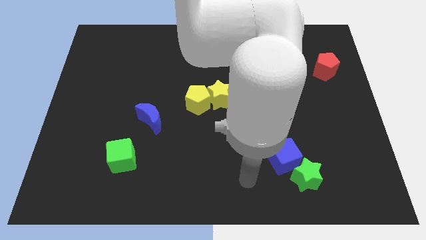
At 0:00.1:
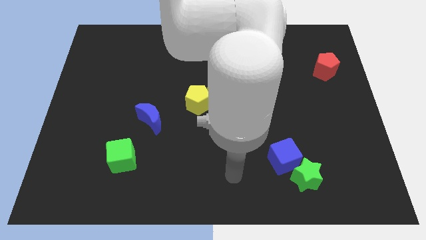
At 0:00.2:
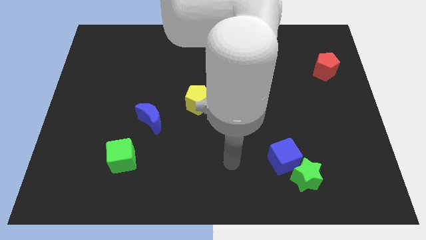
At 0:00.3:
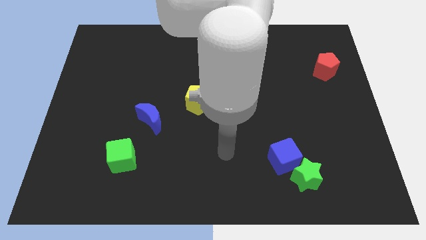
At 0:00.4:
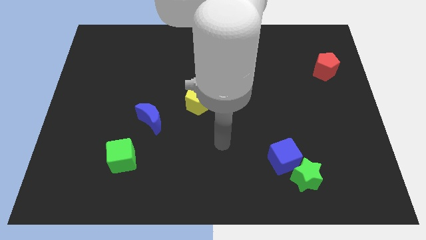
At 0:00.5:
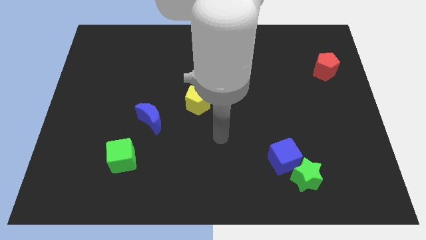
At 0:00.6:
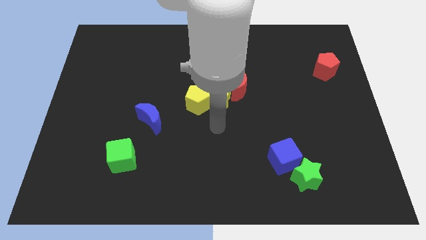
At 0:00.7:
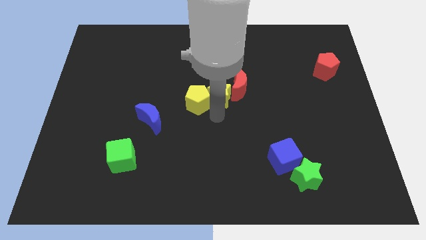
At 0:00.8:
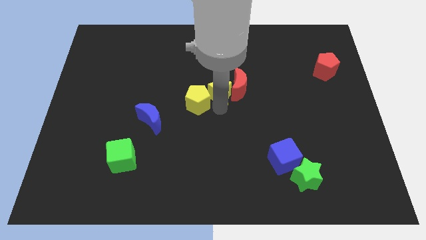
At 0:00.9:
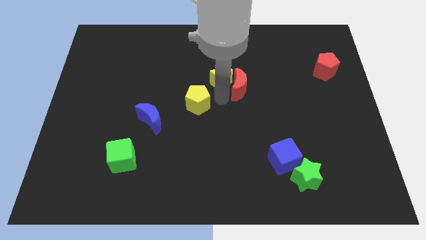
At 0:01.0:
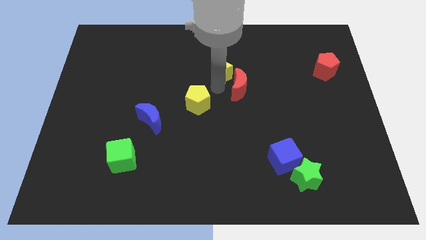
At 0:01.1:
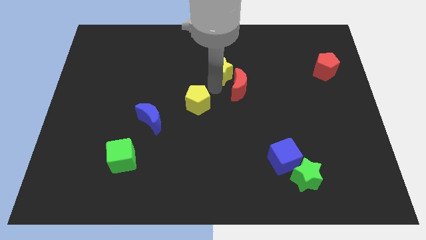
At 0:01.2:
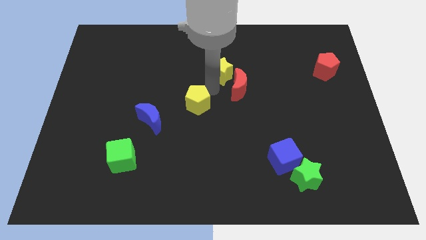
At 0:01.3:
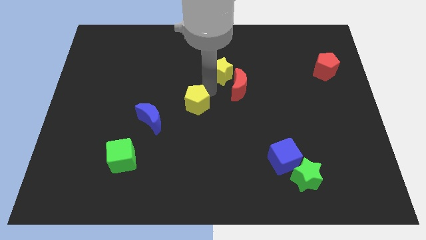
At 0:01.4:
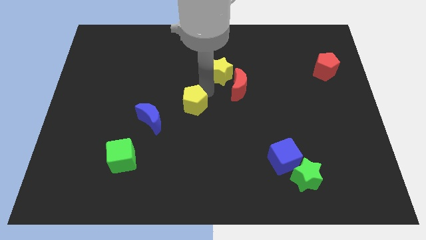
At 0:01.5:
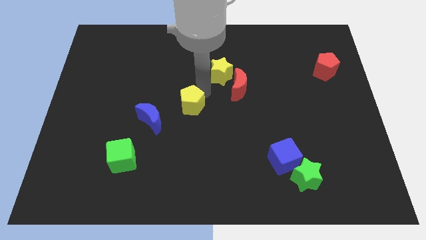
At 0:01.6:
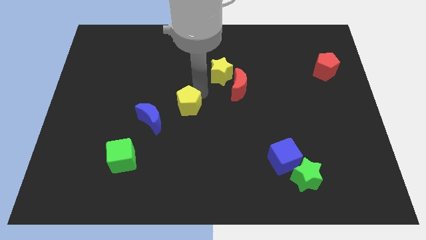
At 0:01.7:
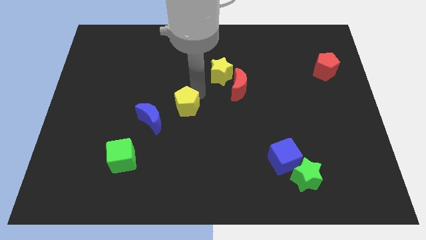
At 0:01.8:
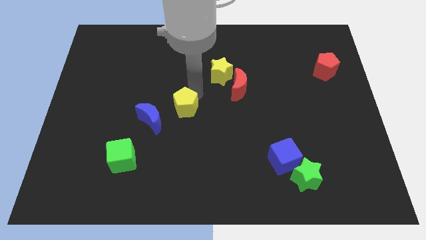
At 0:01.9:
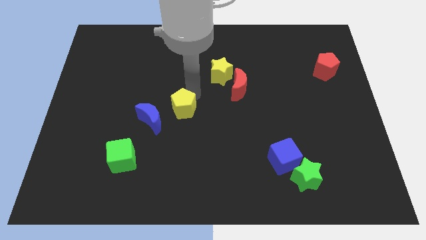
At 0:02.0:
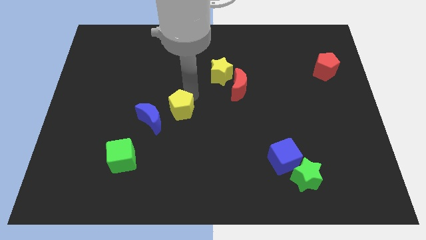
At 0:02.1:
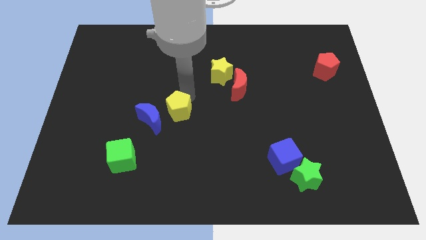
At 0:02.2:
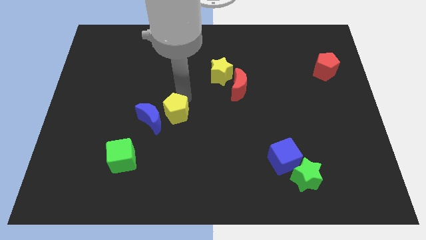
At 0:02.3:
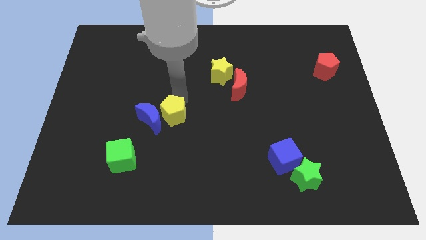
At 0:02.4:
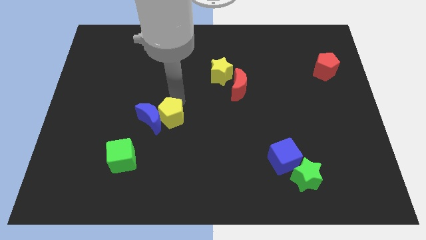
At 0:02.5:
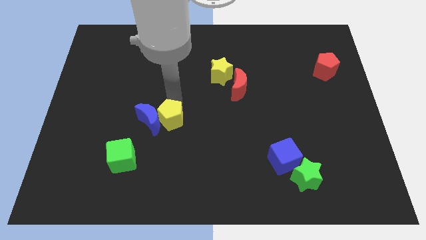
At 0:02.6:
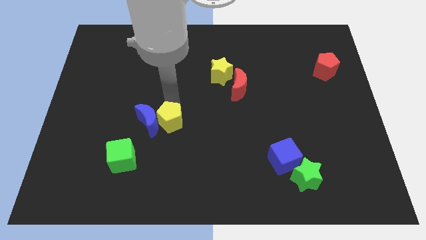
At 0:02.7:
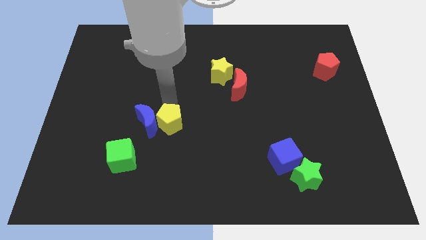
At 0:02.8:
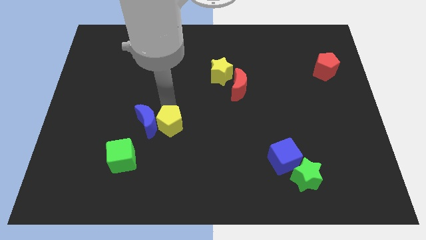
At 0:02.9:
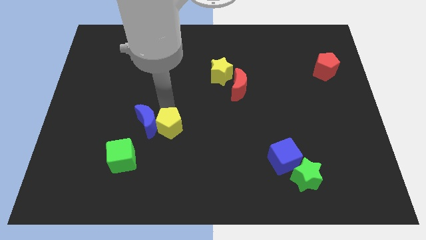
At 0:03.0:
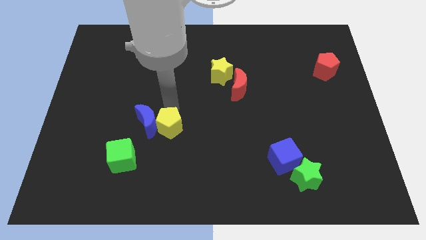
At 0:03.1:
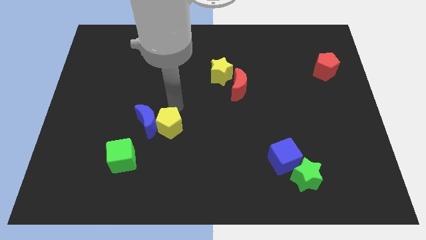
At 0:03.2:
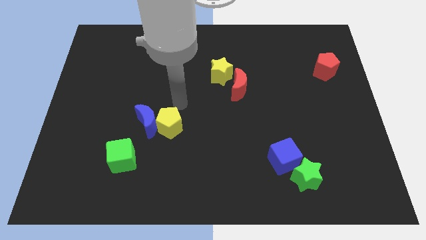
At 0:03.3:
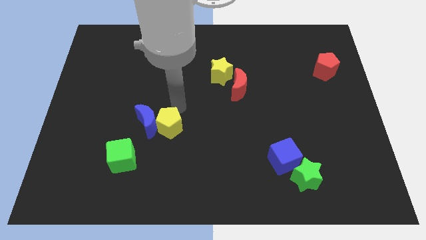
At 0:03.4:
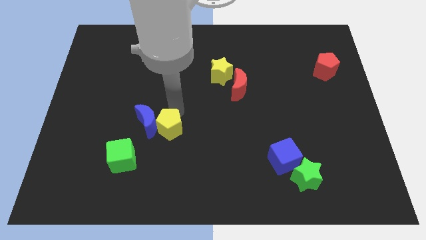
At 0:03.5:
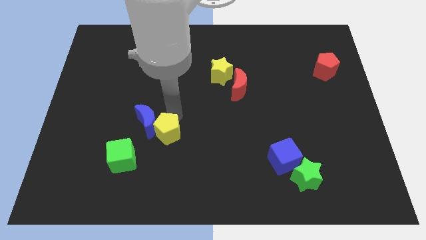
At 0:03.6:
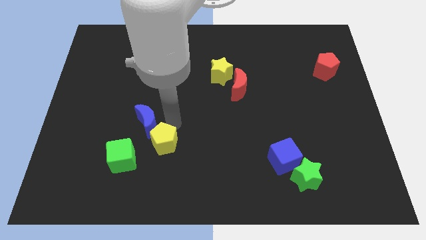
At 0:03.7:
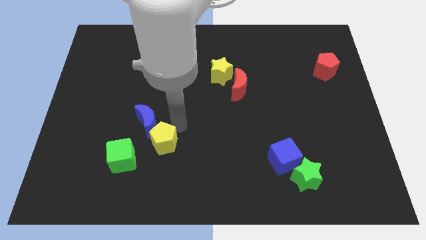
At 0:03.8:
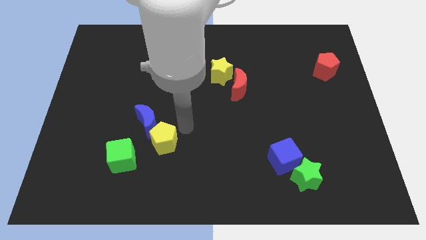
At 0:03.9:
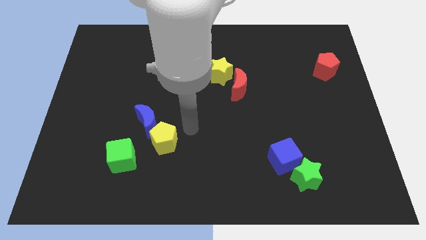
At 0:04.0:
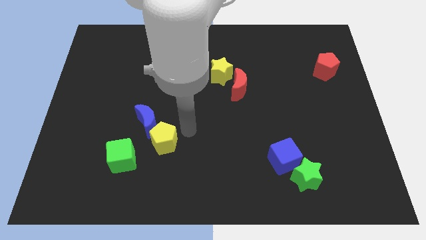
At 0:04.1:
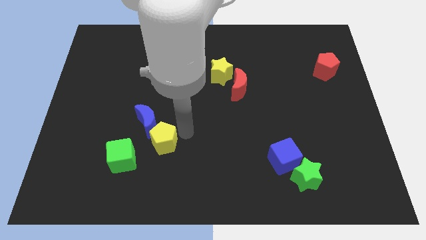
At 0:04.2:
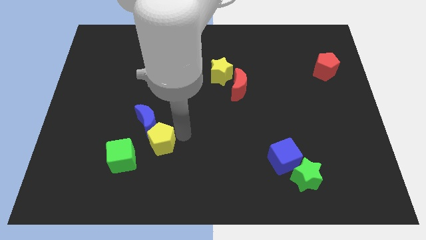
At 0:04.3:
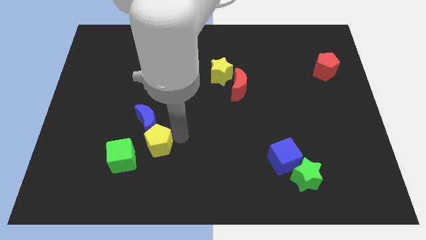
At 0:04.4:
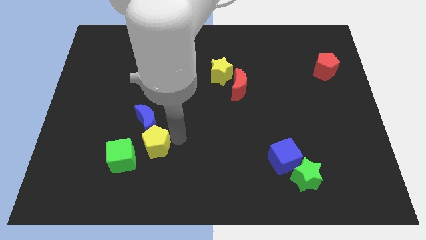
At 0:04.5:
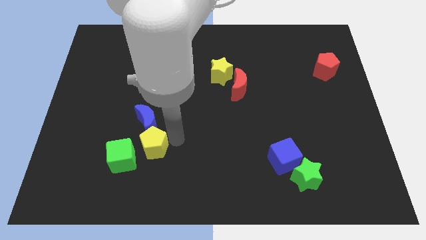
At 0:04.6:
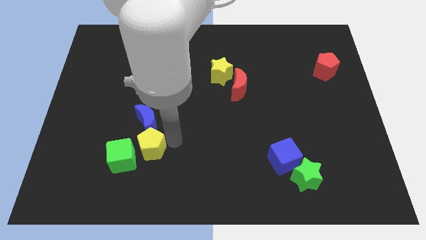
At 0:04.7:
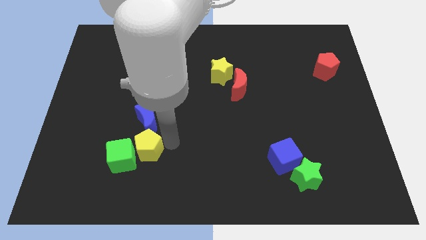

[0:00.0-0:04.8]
put the yellow pentagon towards the green cube

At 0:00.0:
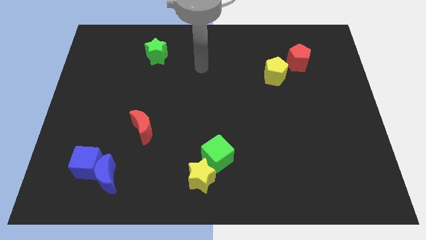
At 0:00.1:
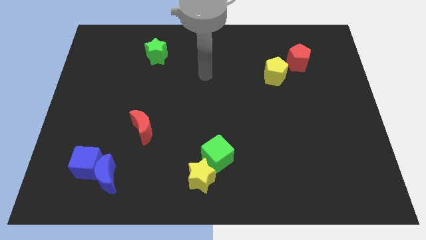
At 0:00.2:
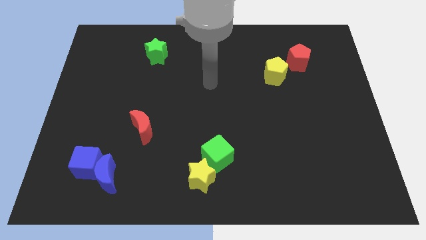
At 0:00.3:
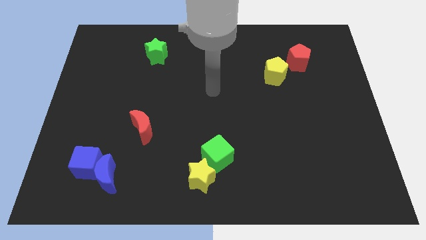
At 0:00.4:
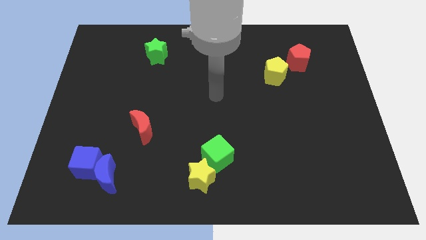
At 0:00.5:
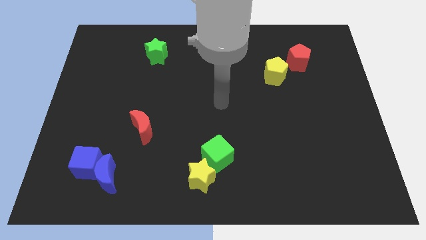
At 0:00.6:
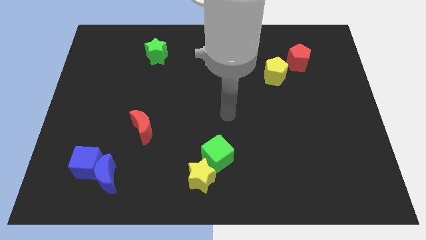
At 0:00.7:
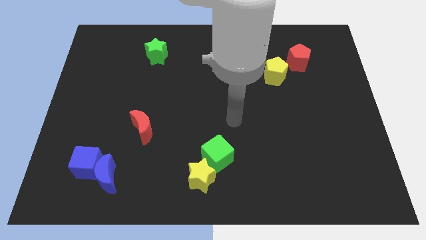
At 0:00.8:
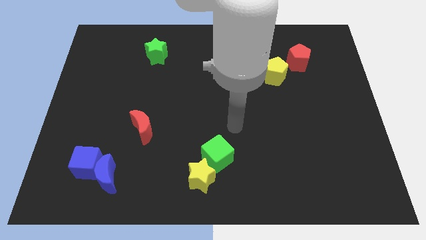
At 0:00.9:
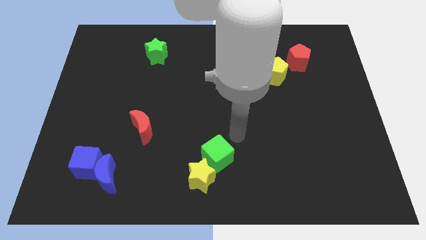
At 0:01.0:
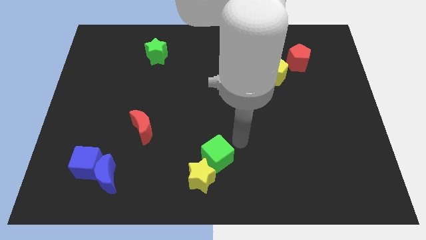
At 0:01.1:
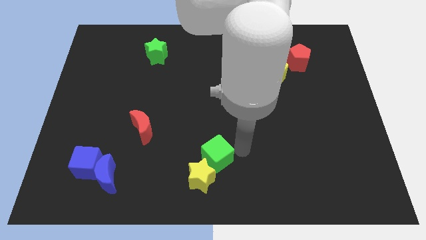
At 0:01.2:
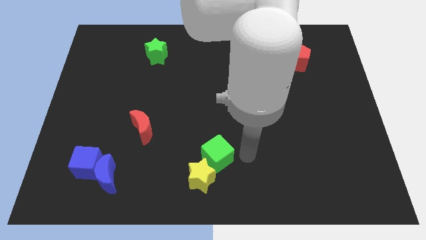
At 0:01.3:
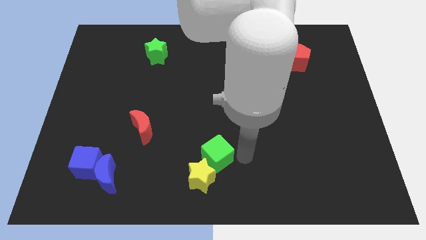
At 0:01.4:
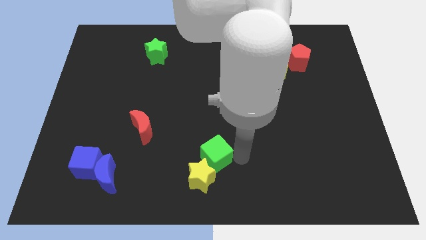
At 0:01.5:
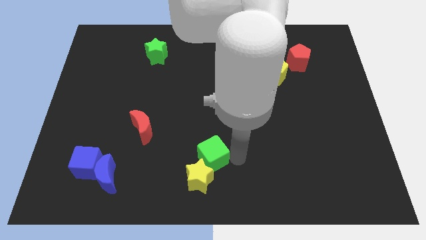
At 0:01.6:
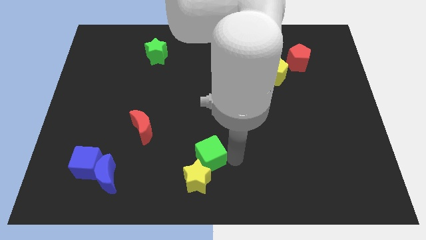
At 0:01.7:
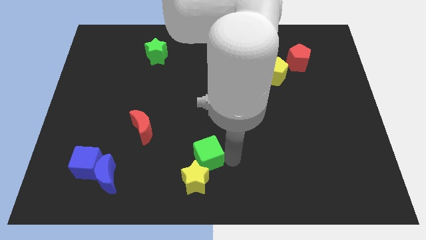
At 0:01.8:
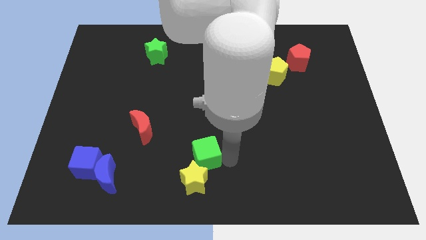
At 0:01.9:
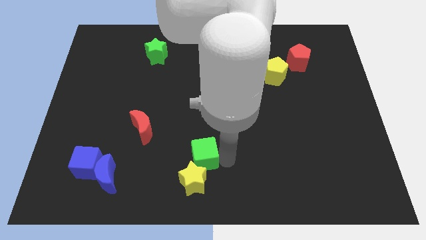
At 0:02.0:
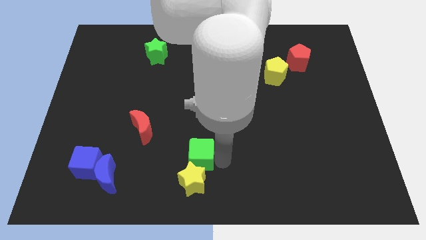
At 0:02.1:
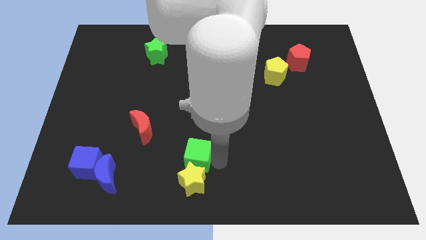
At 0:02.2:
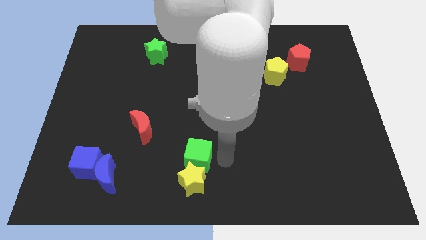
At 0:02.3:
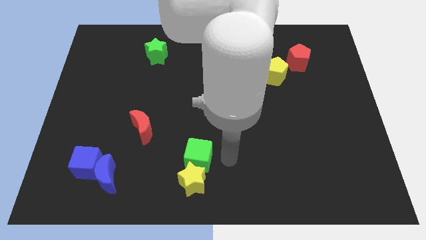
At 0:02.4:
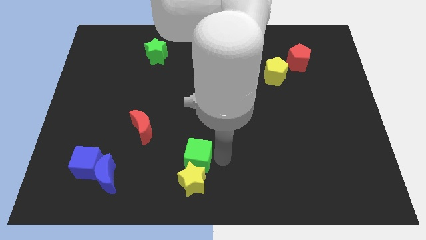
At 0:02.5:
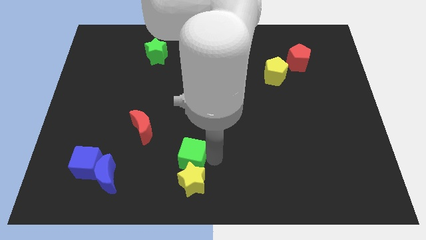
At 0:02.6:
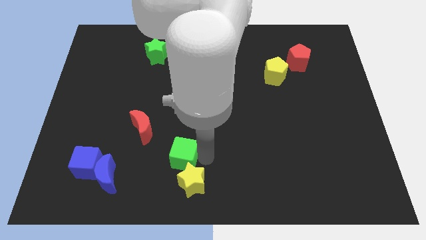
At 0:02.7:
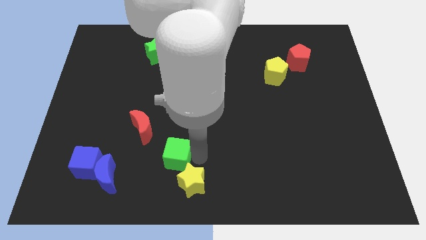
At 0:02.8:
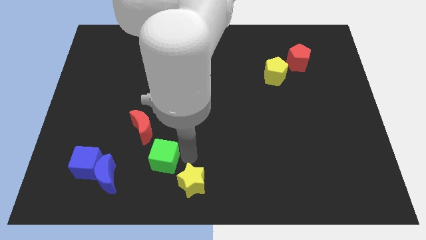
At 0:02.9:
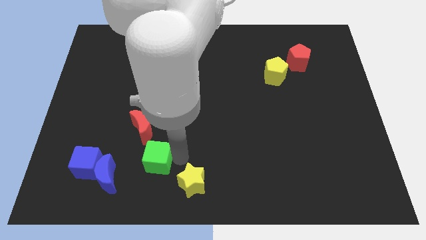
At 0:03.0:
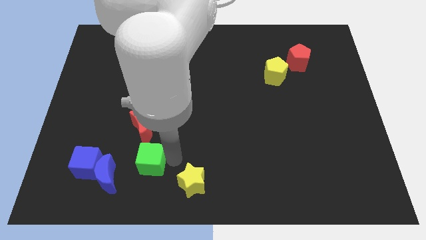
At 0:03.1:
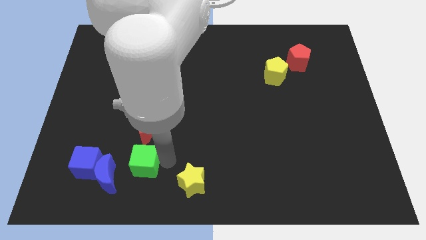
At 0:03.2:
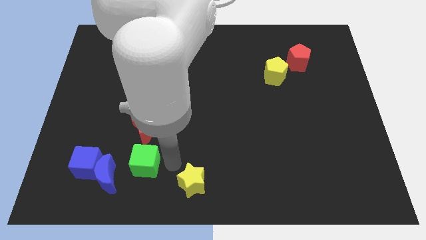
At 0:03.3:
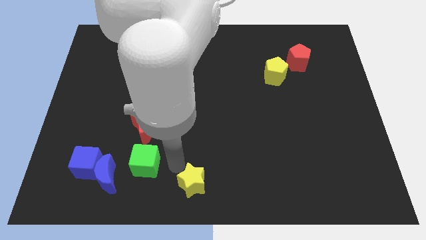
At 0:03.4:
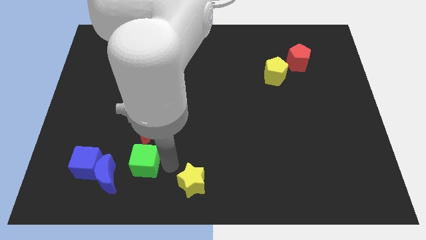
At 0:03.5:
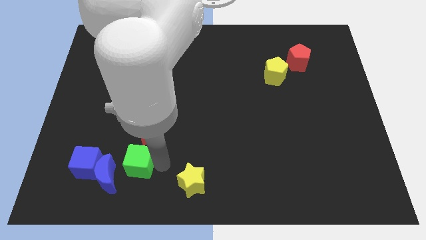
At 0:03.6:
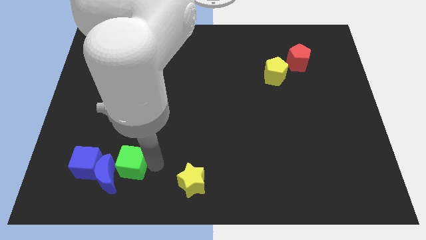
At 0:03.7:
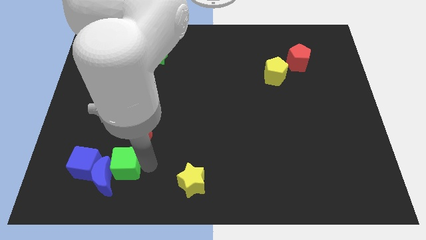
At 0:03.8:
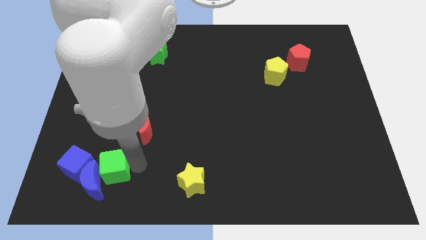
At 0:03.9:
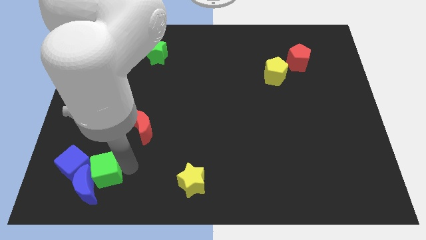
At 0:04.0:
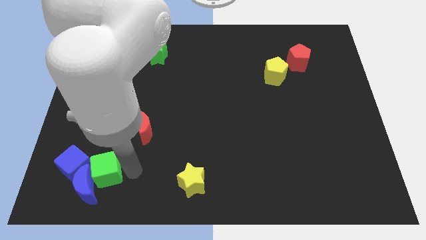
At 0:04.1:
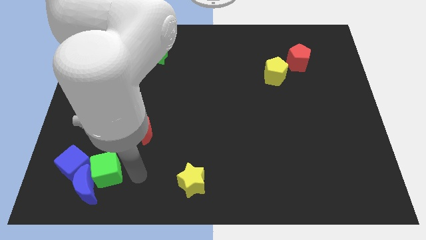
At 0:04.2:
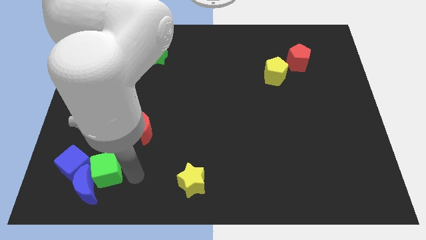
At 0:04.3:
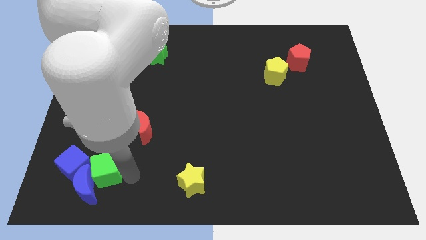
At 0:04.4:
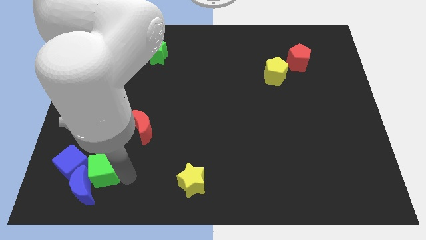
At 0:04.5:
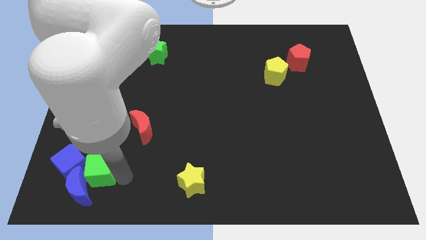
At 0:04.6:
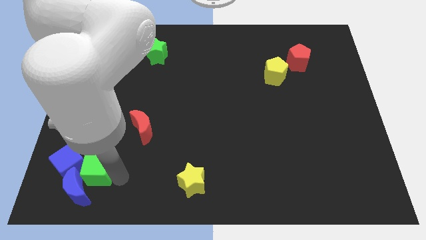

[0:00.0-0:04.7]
move the green cube close to the blue cube
